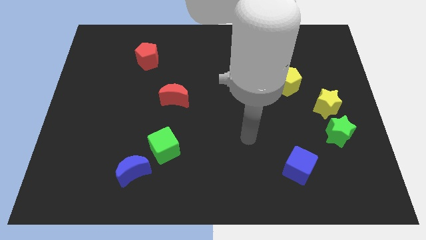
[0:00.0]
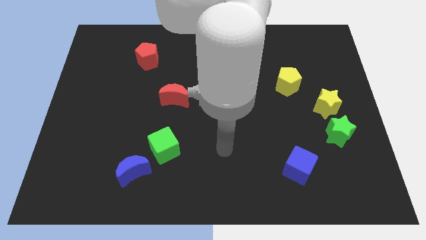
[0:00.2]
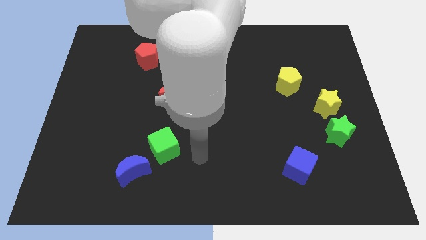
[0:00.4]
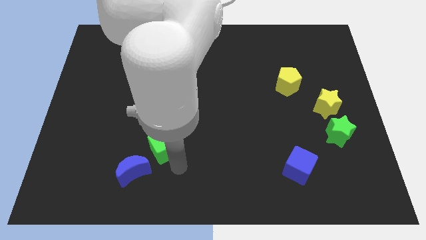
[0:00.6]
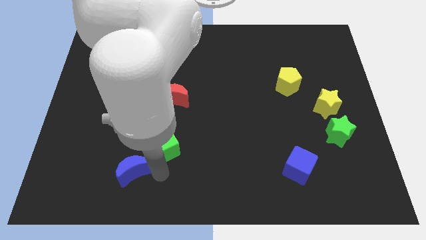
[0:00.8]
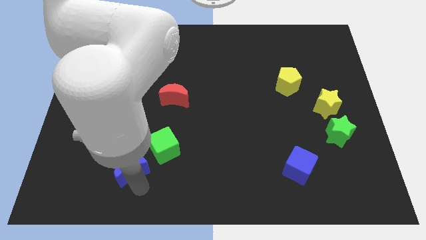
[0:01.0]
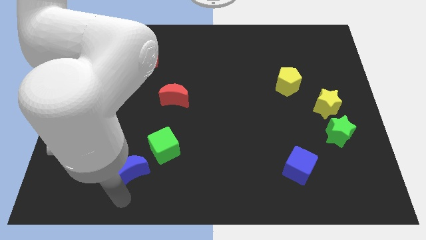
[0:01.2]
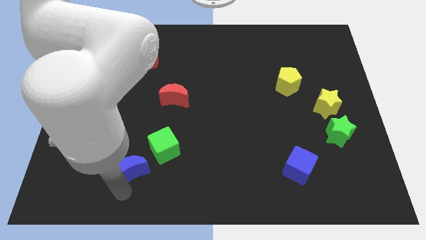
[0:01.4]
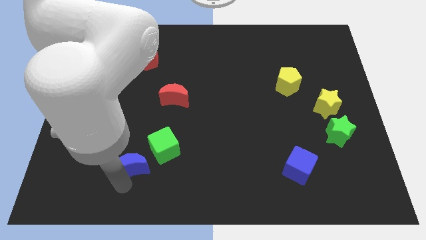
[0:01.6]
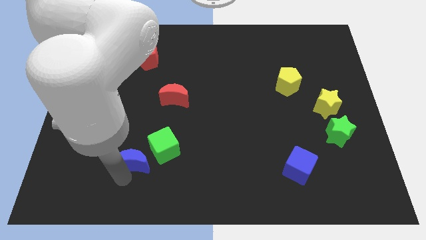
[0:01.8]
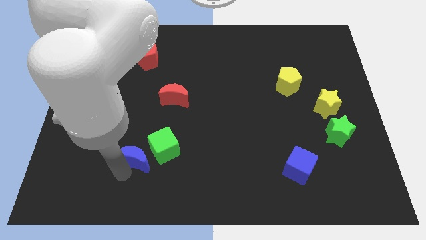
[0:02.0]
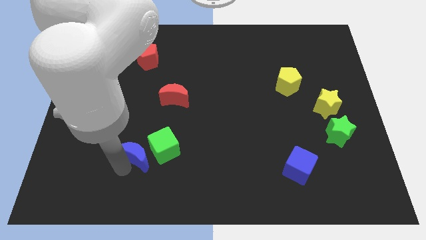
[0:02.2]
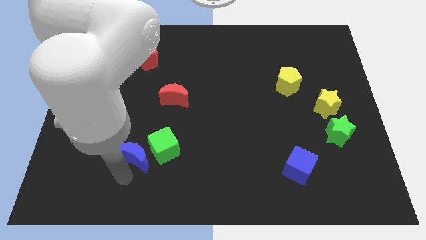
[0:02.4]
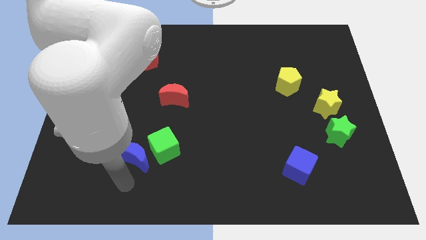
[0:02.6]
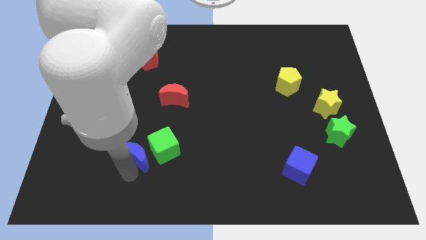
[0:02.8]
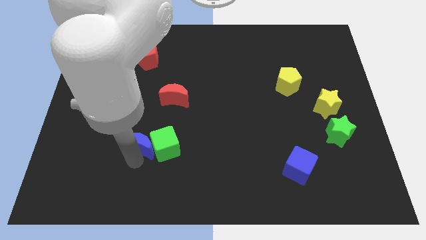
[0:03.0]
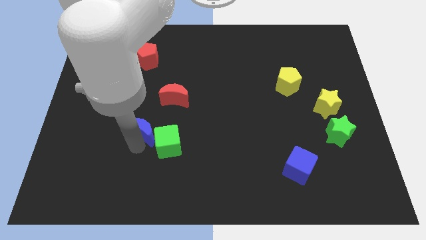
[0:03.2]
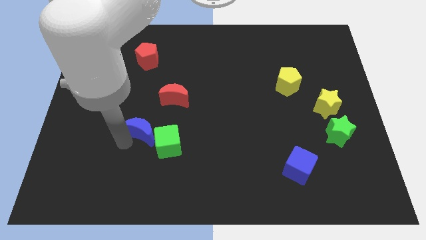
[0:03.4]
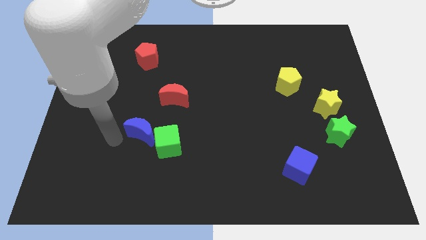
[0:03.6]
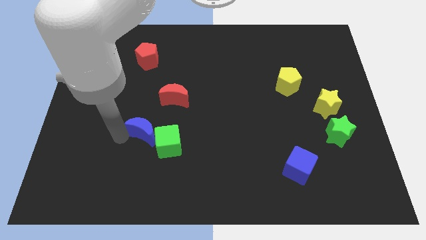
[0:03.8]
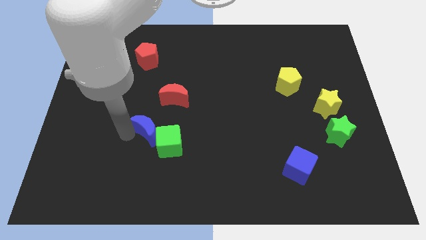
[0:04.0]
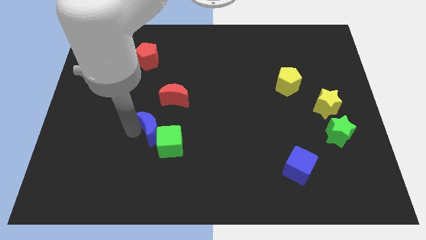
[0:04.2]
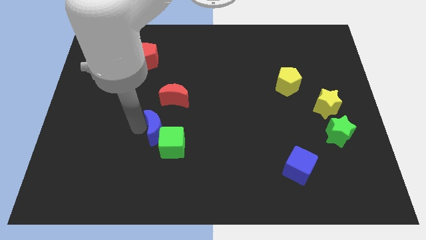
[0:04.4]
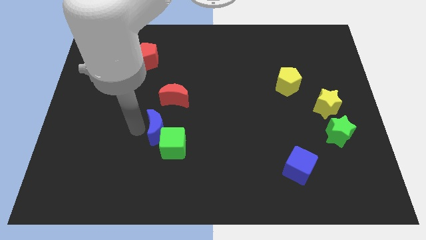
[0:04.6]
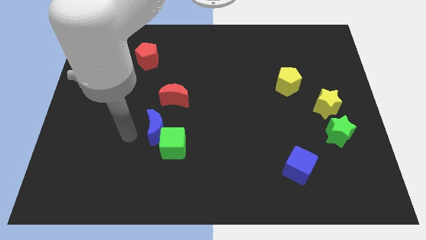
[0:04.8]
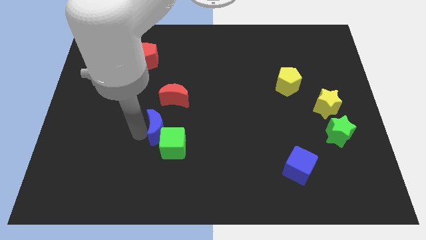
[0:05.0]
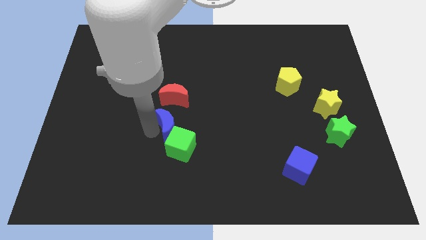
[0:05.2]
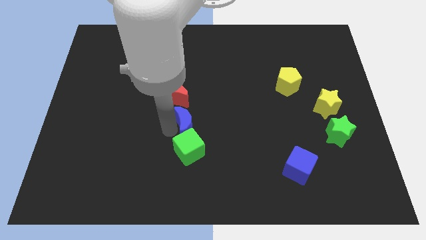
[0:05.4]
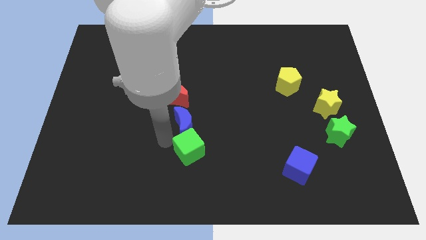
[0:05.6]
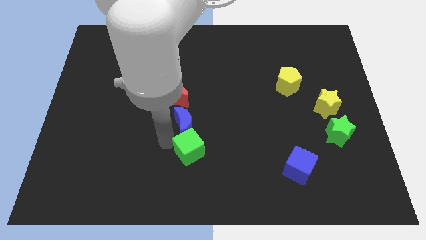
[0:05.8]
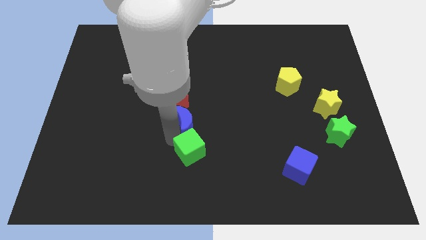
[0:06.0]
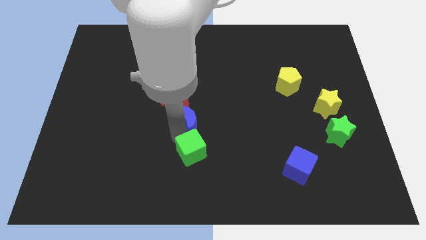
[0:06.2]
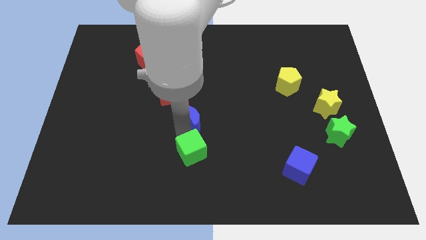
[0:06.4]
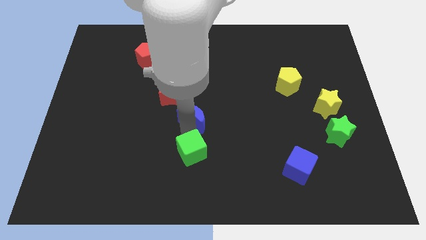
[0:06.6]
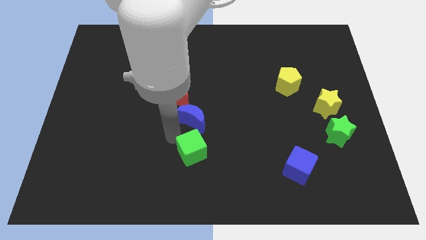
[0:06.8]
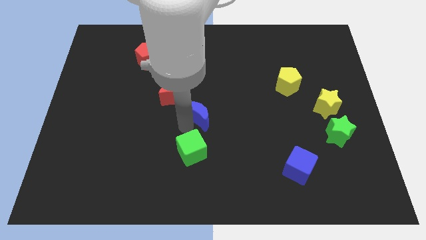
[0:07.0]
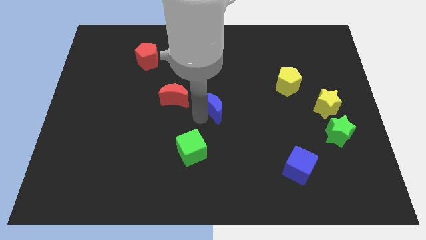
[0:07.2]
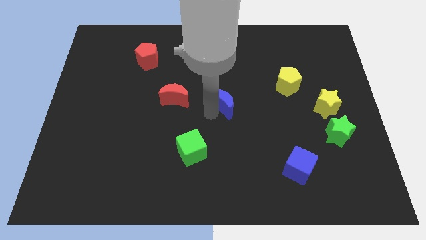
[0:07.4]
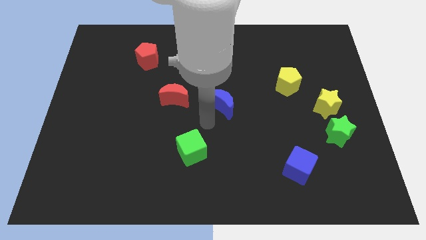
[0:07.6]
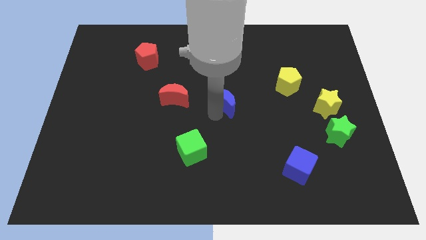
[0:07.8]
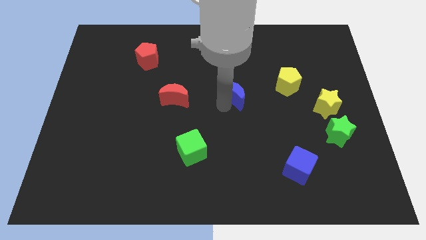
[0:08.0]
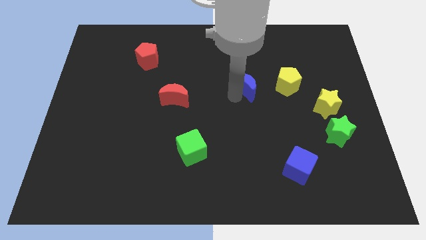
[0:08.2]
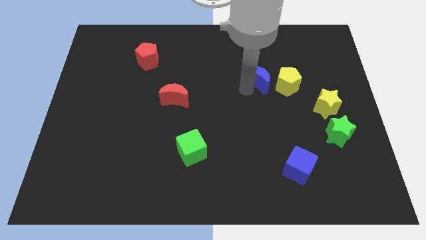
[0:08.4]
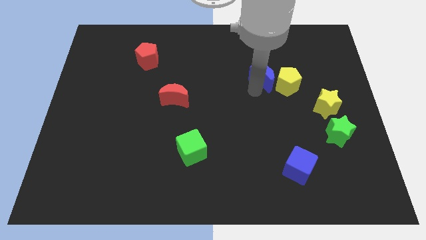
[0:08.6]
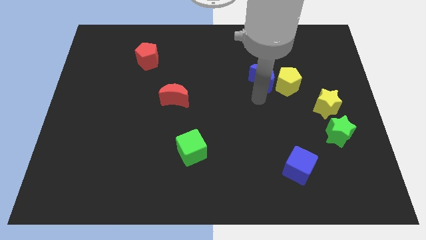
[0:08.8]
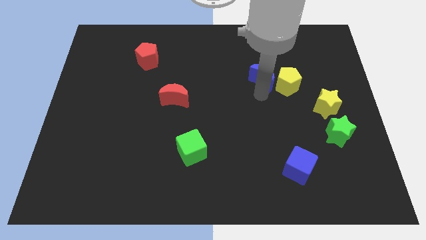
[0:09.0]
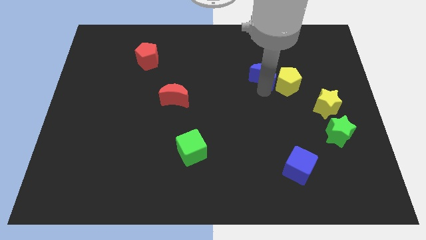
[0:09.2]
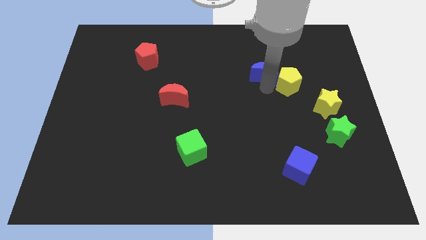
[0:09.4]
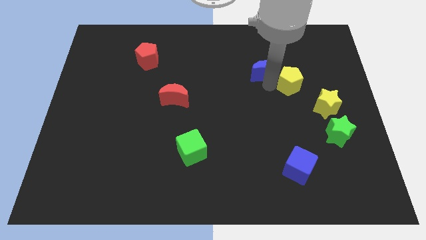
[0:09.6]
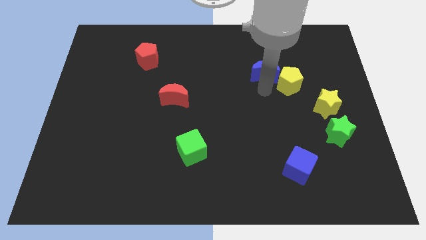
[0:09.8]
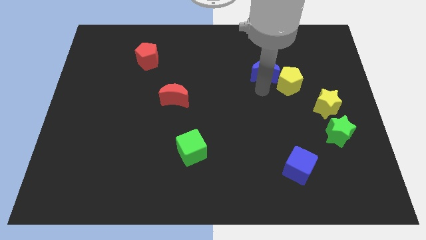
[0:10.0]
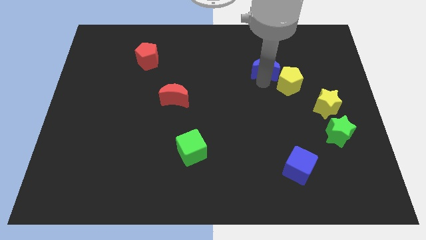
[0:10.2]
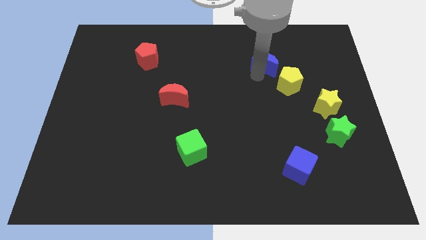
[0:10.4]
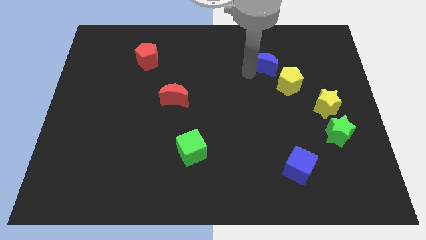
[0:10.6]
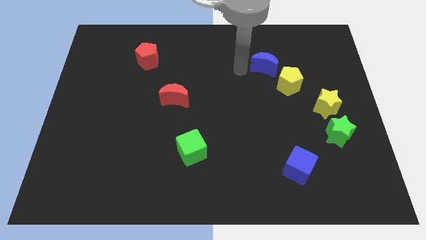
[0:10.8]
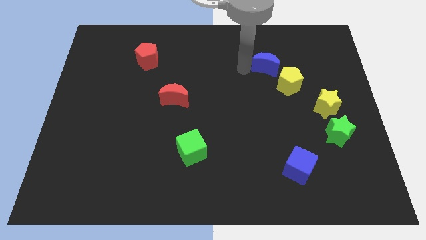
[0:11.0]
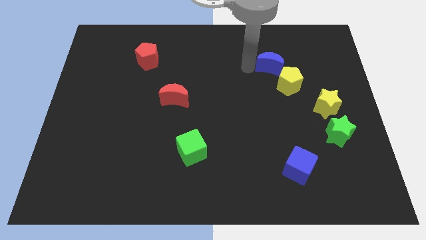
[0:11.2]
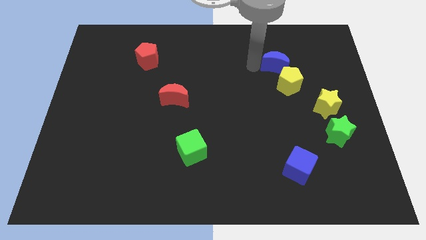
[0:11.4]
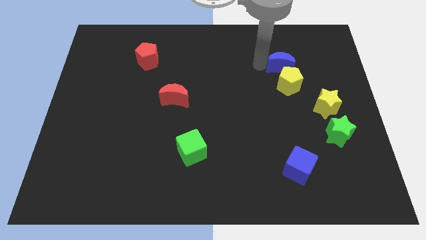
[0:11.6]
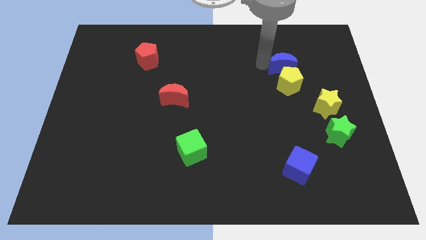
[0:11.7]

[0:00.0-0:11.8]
put the blue moon to the top right of the yellow pentagon
